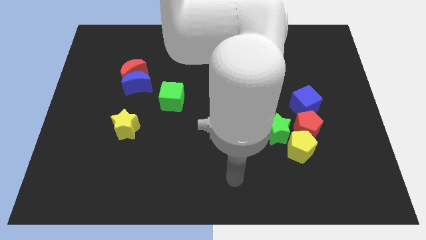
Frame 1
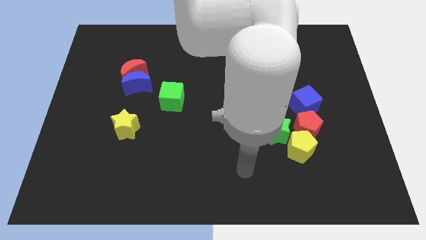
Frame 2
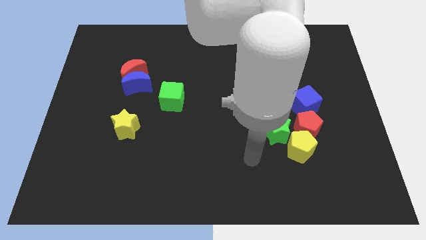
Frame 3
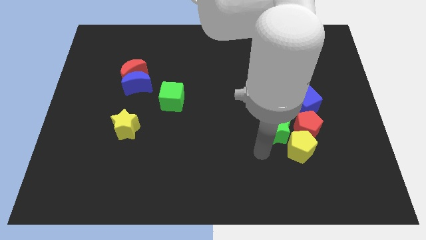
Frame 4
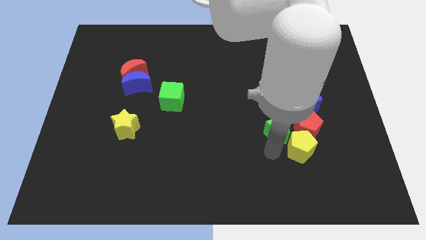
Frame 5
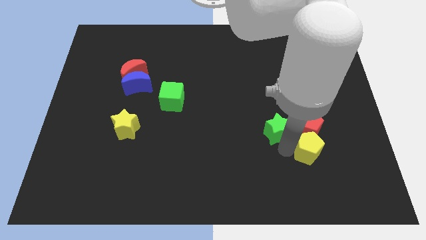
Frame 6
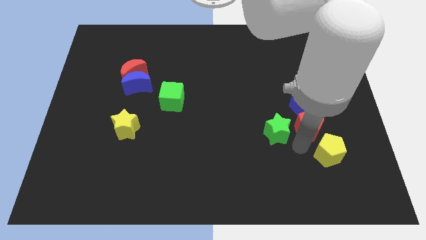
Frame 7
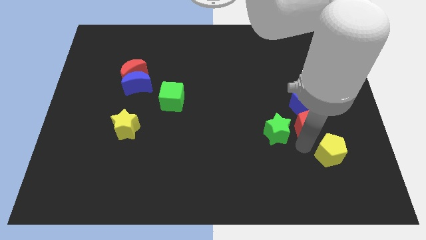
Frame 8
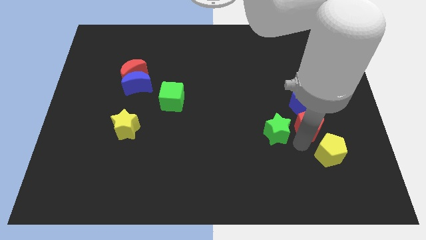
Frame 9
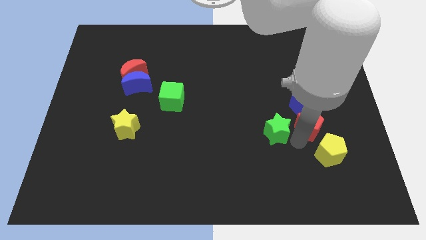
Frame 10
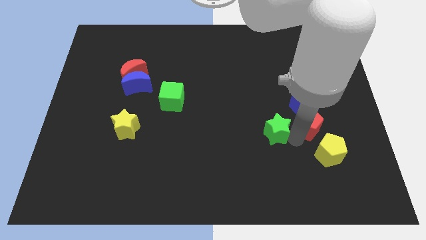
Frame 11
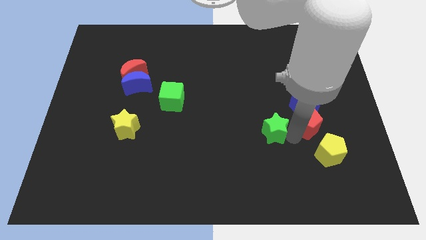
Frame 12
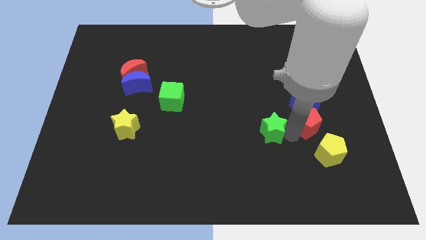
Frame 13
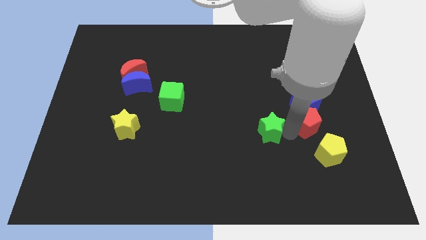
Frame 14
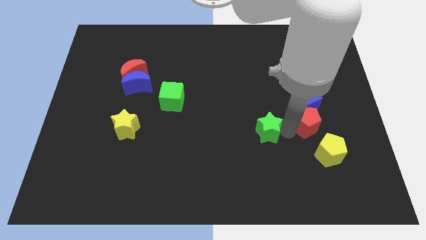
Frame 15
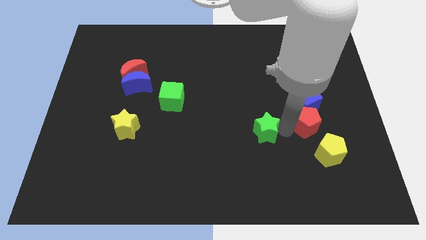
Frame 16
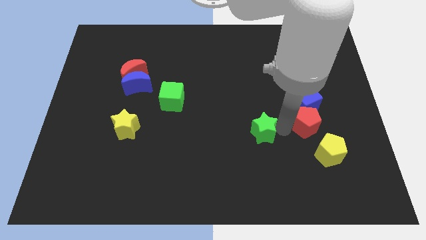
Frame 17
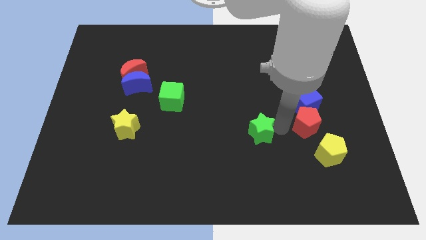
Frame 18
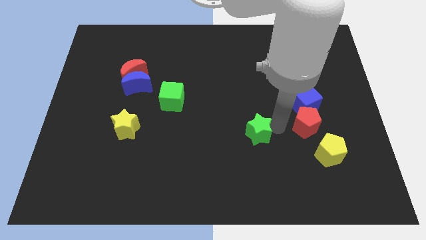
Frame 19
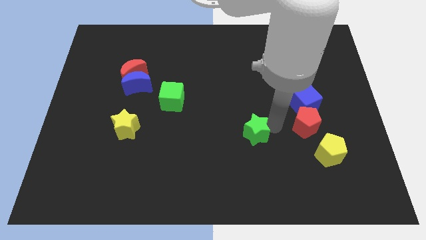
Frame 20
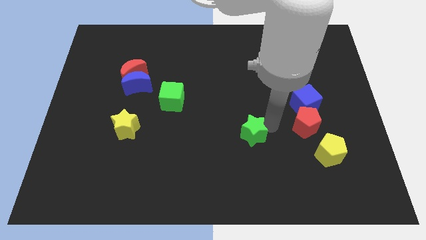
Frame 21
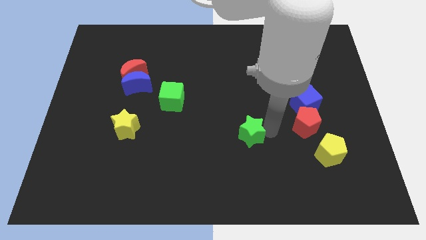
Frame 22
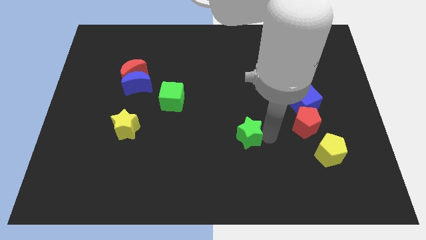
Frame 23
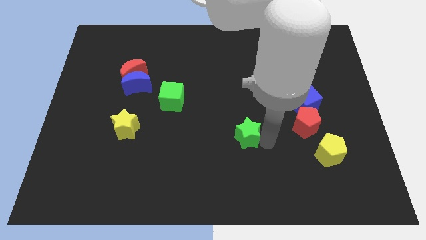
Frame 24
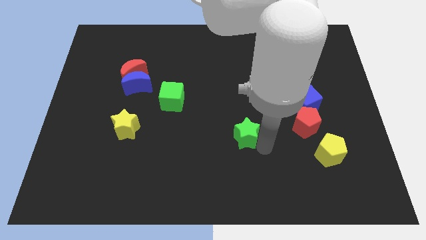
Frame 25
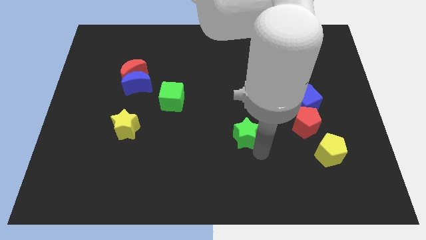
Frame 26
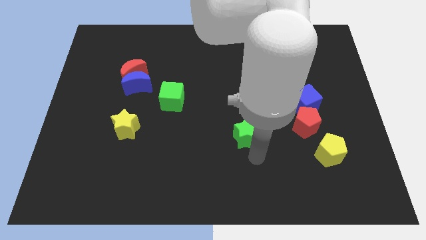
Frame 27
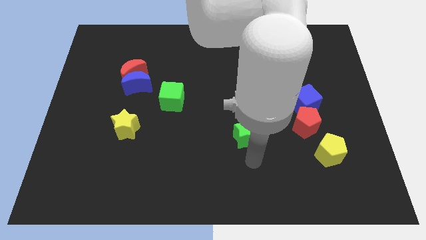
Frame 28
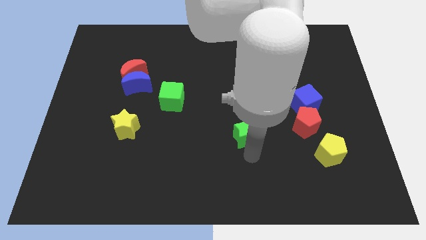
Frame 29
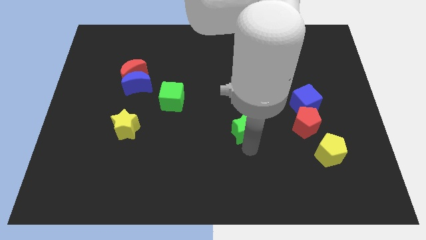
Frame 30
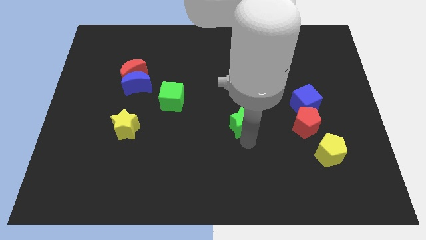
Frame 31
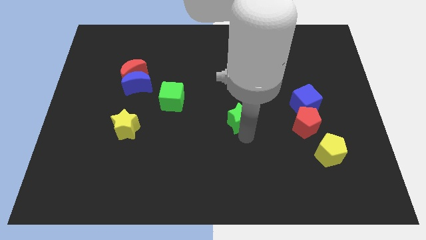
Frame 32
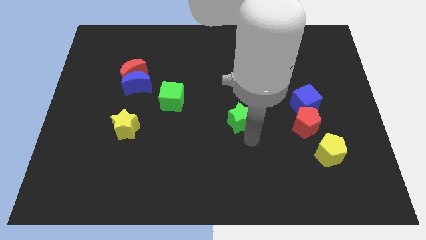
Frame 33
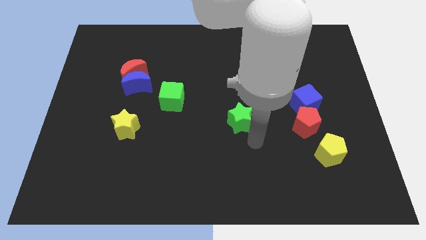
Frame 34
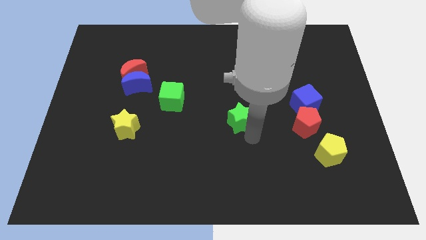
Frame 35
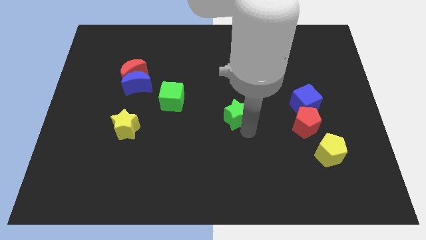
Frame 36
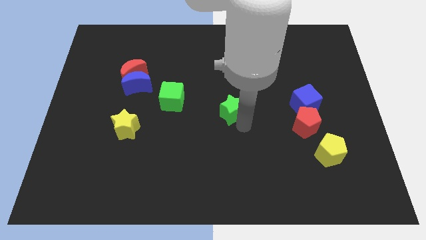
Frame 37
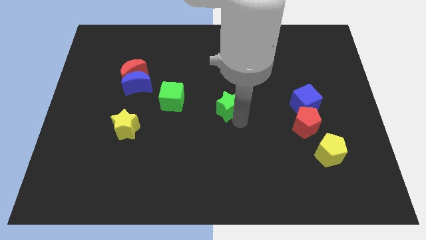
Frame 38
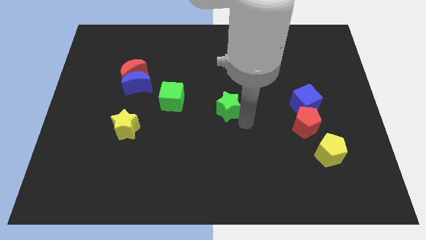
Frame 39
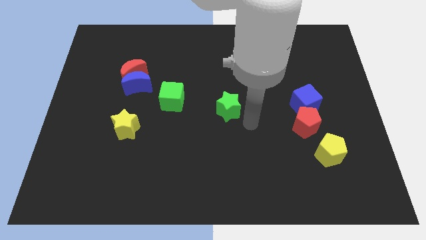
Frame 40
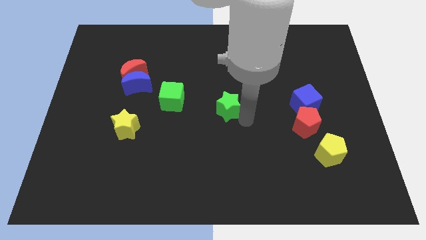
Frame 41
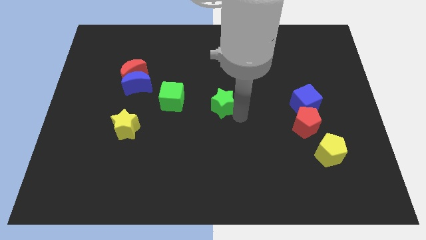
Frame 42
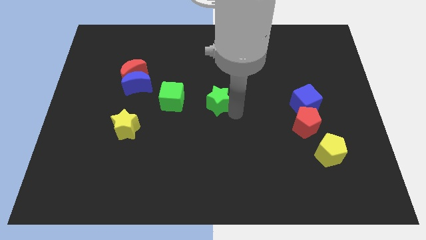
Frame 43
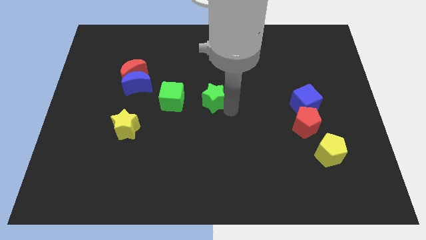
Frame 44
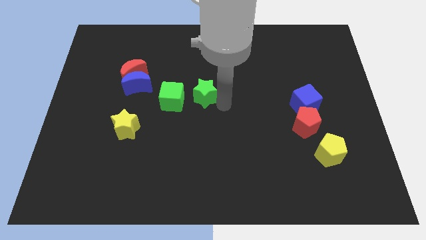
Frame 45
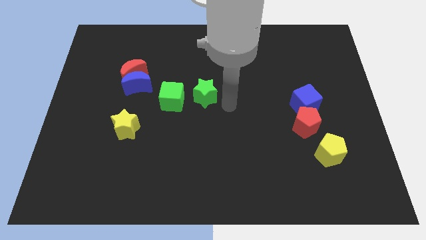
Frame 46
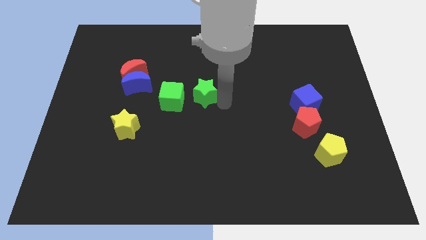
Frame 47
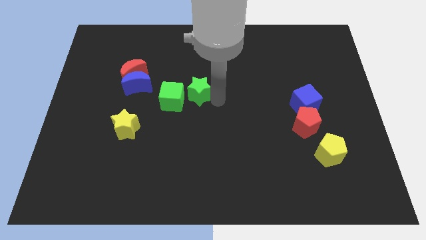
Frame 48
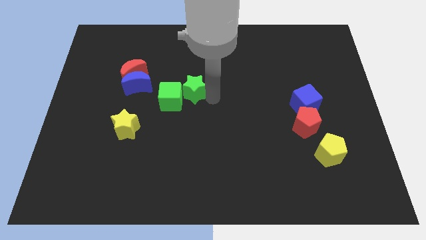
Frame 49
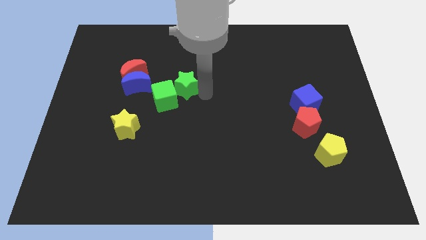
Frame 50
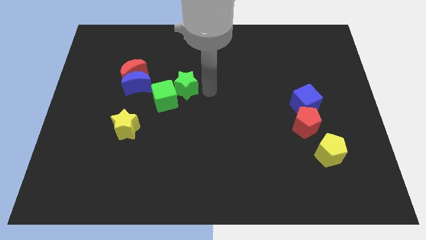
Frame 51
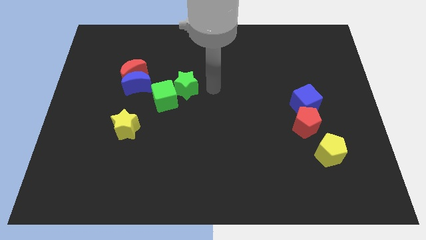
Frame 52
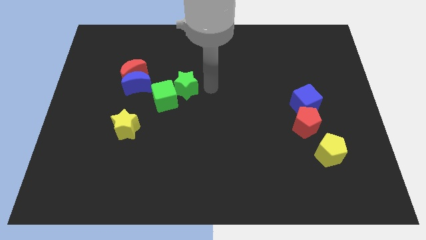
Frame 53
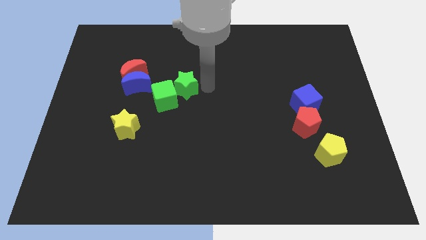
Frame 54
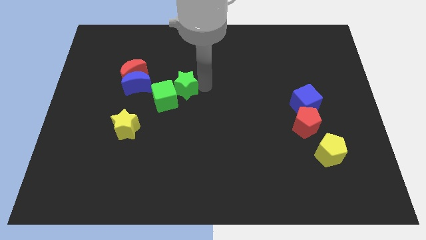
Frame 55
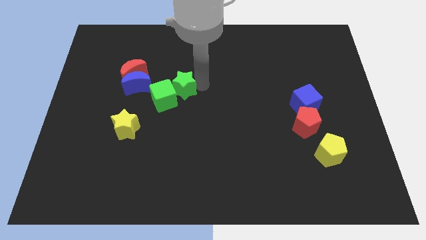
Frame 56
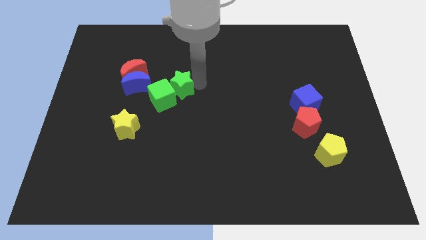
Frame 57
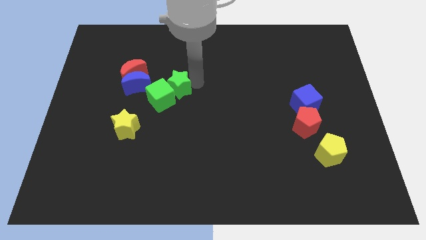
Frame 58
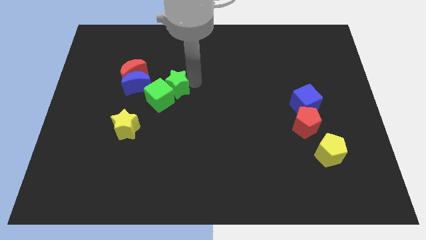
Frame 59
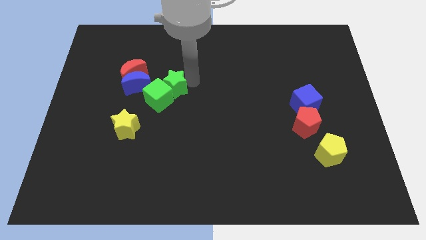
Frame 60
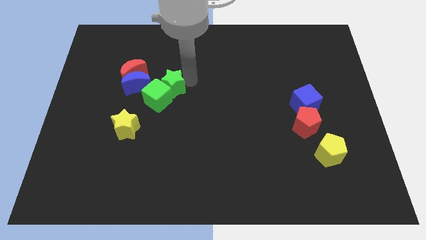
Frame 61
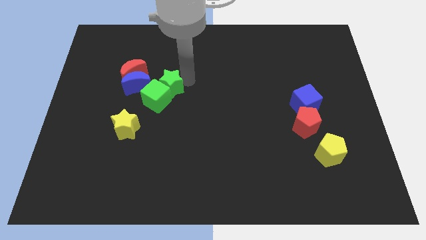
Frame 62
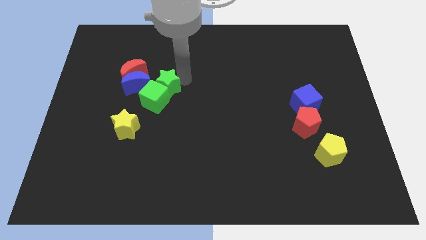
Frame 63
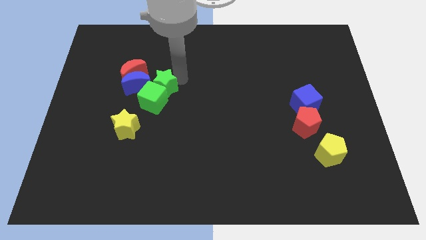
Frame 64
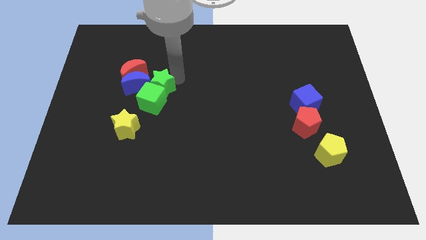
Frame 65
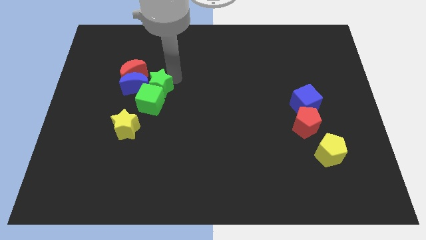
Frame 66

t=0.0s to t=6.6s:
put the green star next to the blue moon
